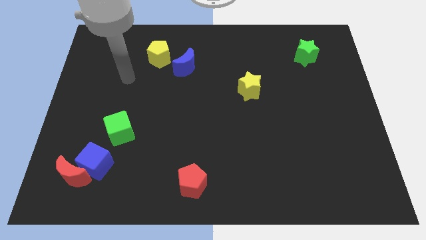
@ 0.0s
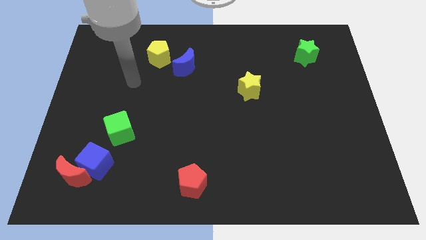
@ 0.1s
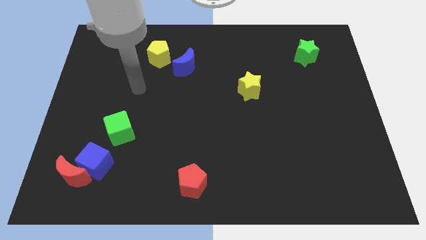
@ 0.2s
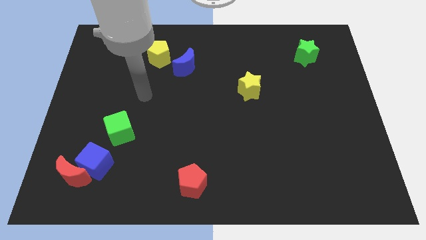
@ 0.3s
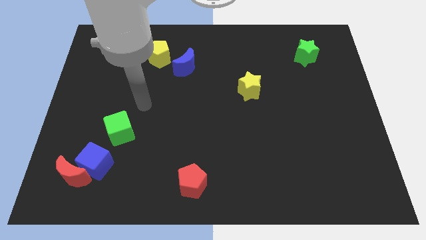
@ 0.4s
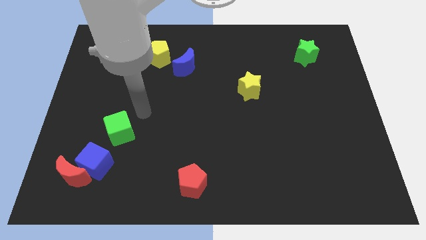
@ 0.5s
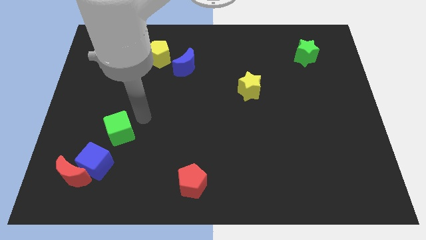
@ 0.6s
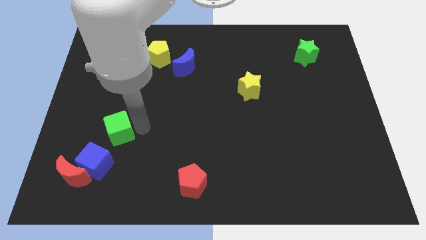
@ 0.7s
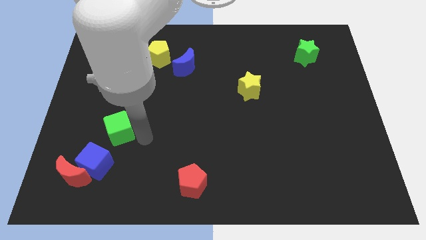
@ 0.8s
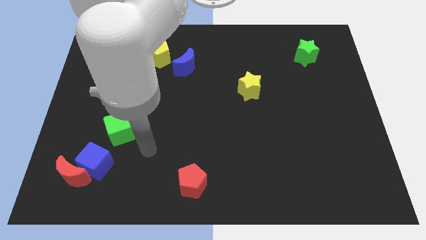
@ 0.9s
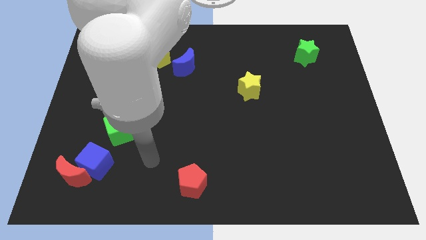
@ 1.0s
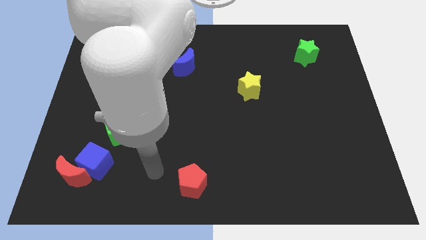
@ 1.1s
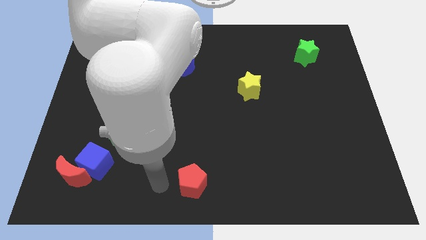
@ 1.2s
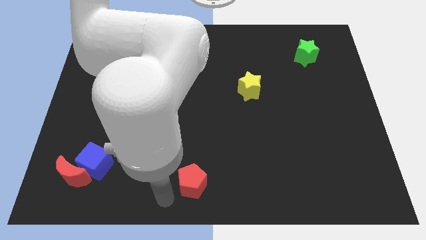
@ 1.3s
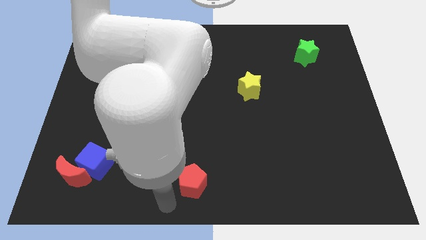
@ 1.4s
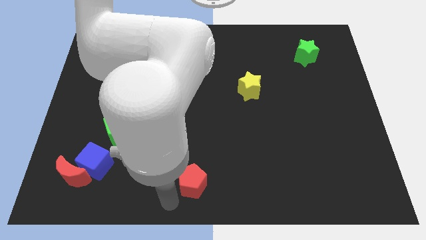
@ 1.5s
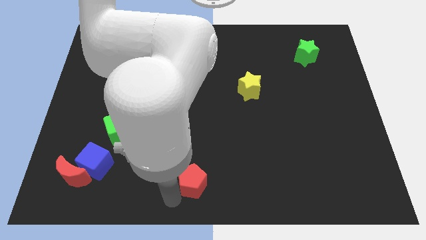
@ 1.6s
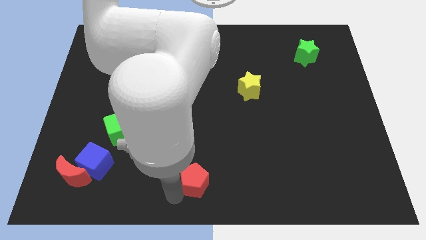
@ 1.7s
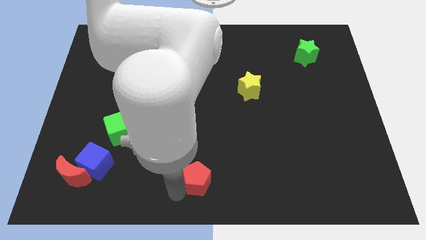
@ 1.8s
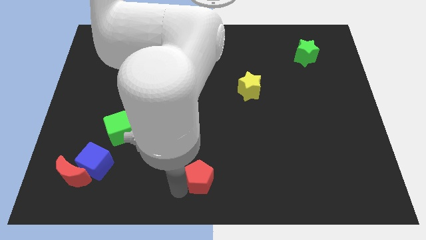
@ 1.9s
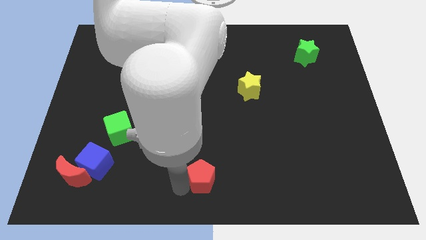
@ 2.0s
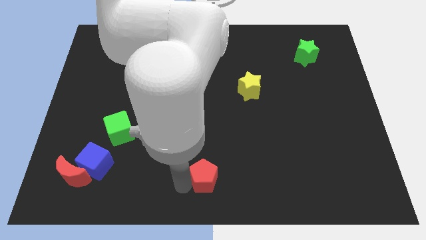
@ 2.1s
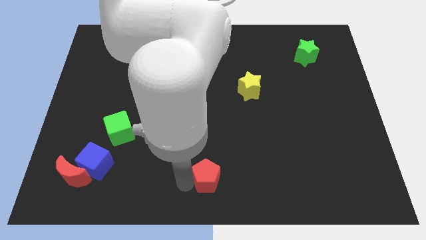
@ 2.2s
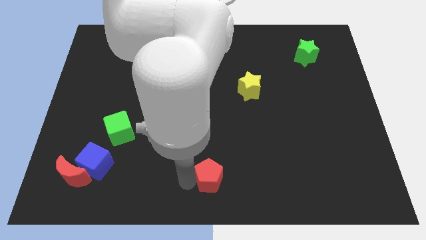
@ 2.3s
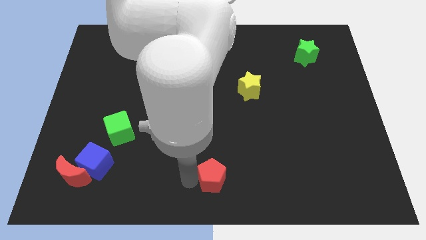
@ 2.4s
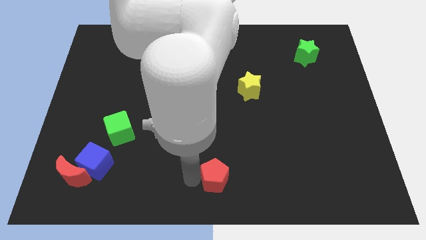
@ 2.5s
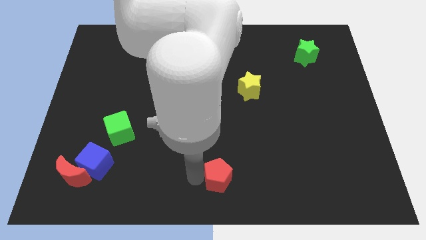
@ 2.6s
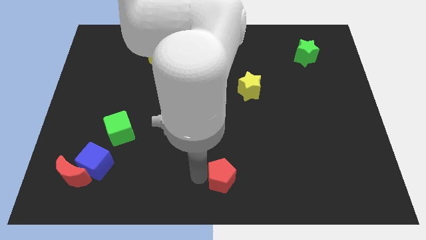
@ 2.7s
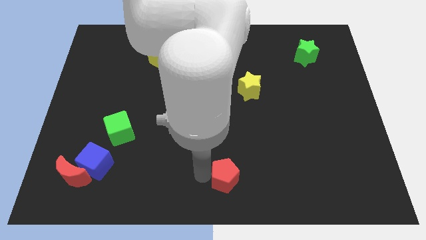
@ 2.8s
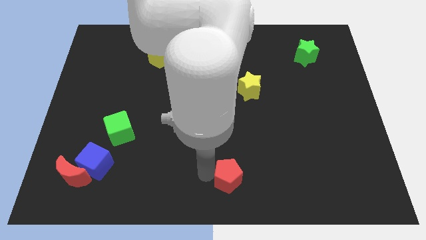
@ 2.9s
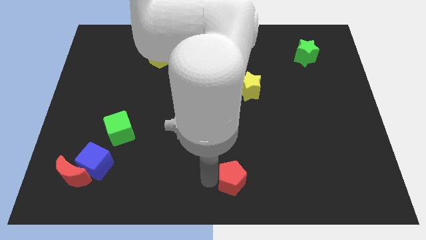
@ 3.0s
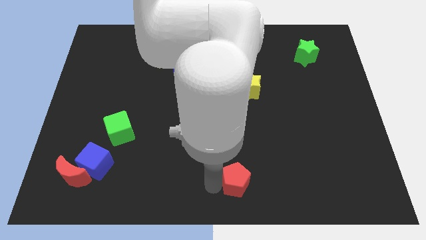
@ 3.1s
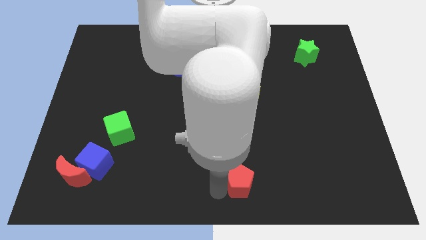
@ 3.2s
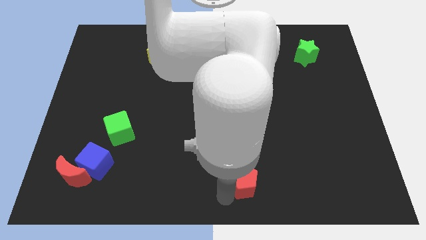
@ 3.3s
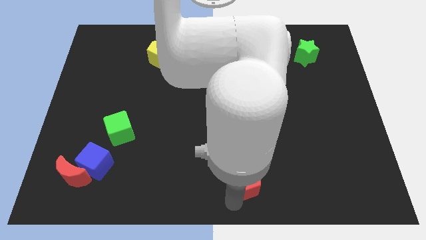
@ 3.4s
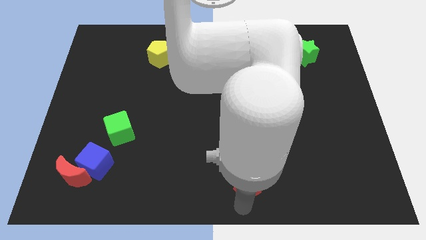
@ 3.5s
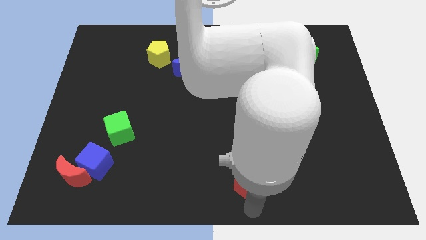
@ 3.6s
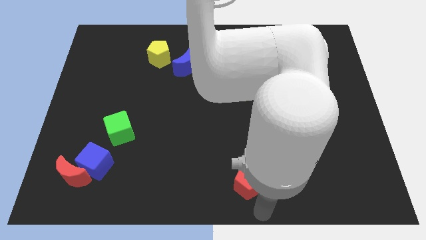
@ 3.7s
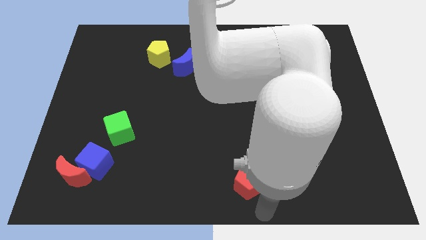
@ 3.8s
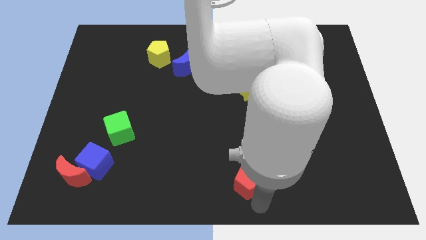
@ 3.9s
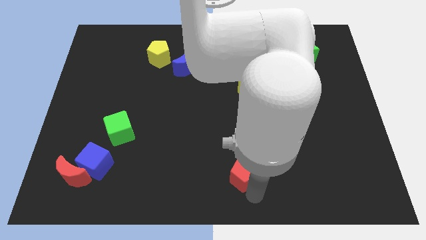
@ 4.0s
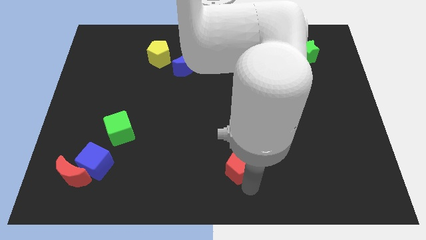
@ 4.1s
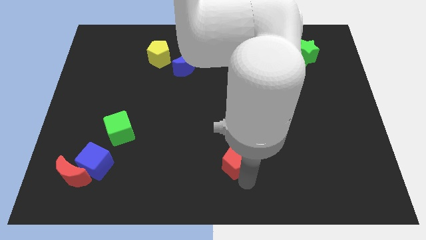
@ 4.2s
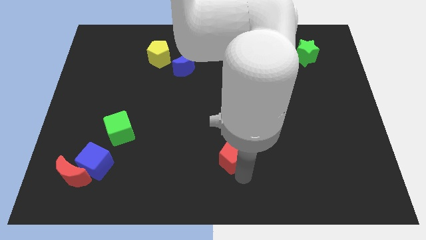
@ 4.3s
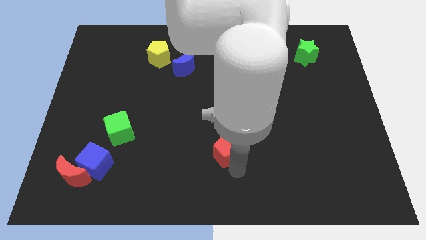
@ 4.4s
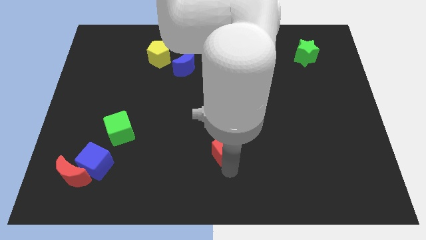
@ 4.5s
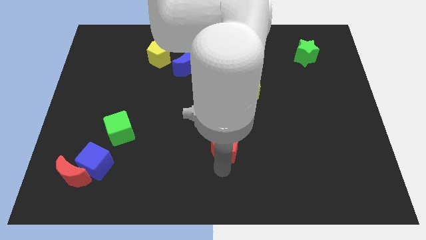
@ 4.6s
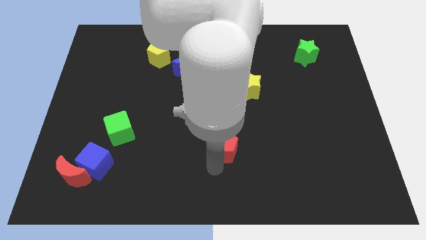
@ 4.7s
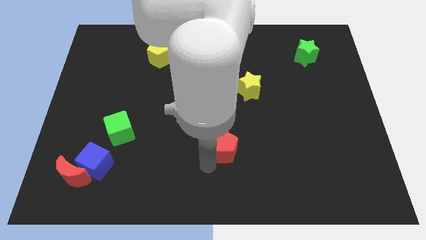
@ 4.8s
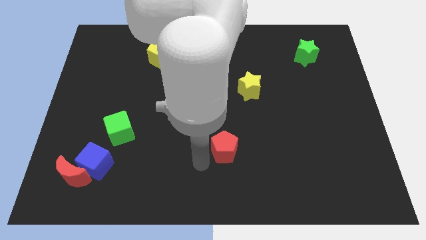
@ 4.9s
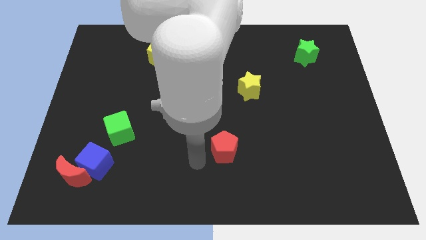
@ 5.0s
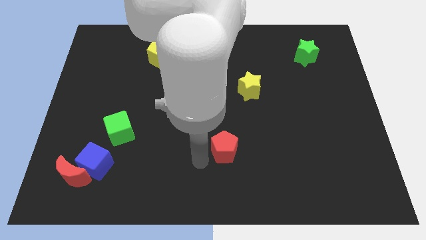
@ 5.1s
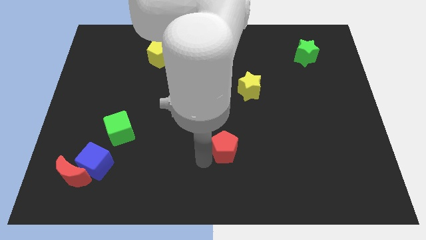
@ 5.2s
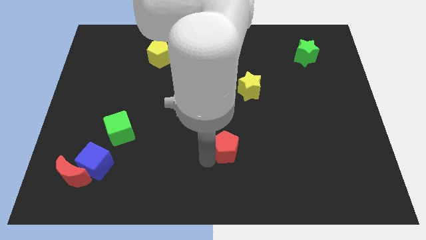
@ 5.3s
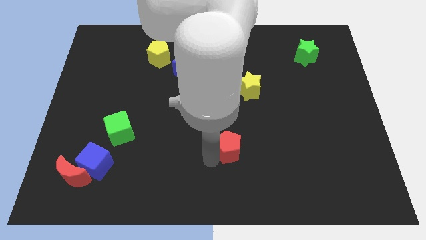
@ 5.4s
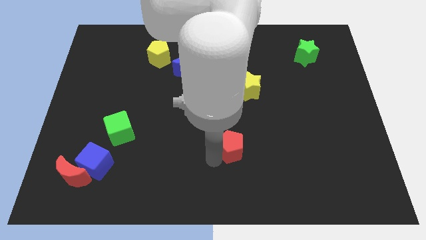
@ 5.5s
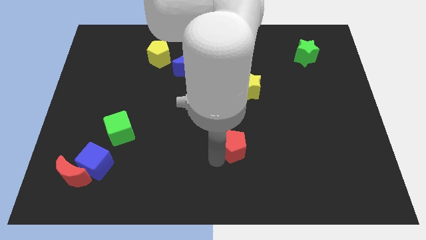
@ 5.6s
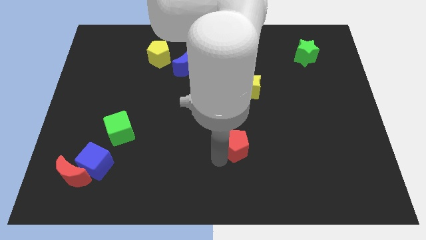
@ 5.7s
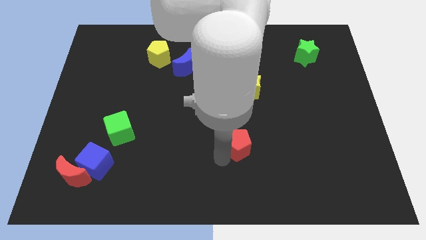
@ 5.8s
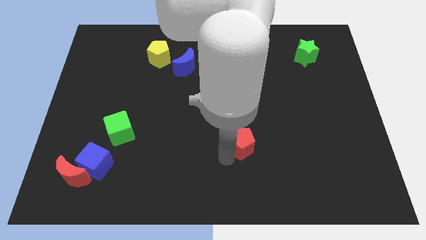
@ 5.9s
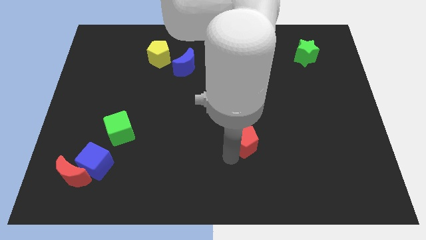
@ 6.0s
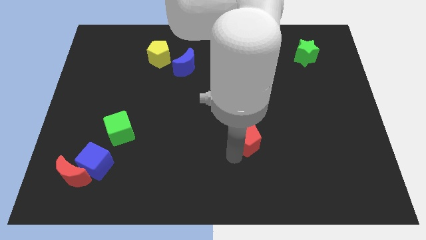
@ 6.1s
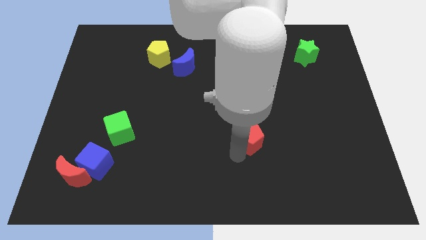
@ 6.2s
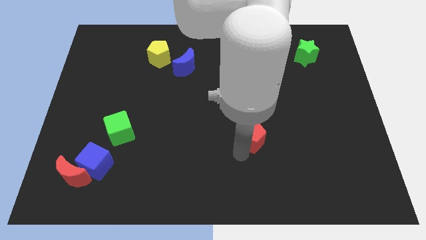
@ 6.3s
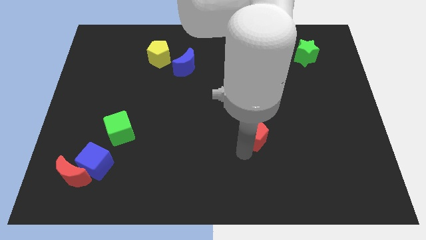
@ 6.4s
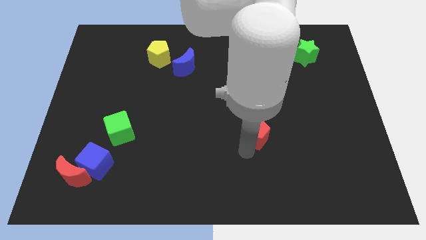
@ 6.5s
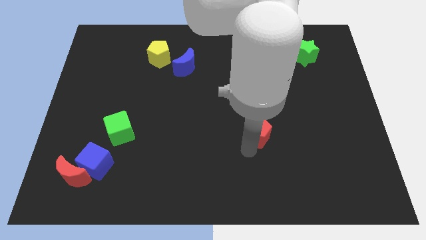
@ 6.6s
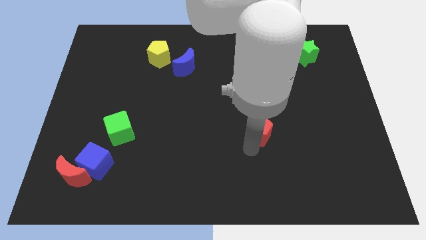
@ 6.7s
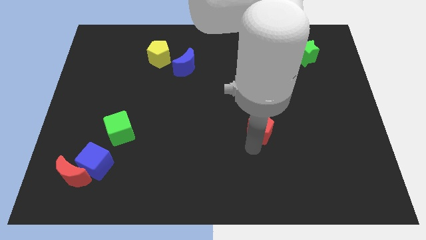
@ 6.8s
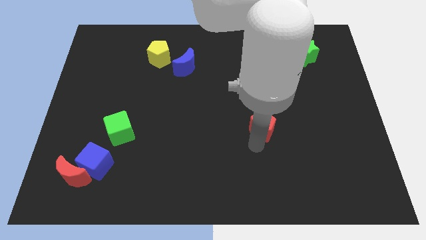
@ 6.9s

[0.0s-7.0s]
move the red pentagon upwards and to the right diagonally

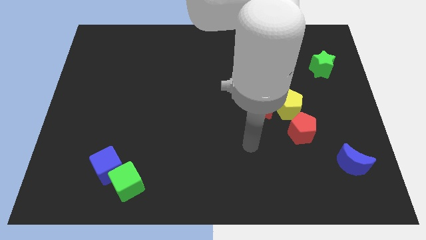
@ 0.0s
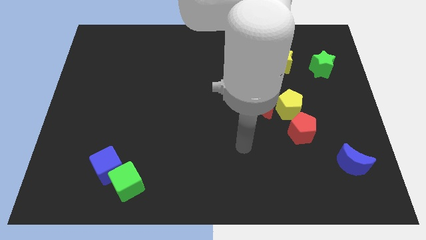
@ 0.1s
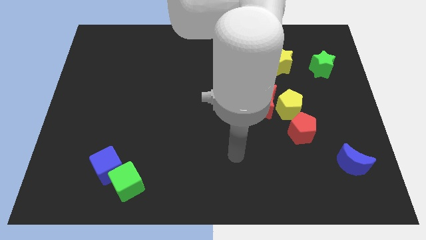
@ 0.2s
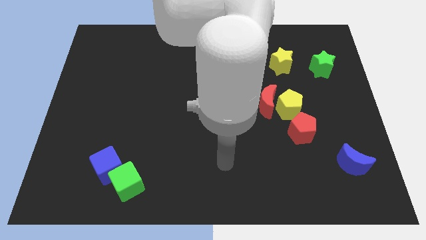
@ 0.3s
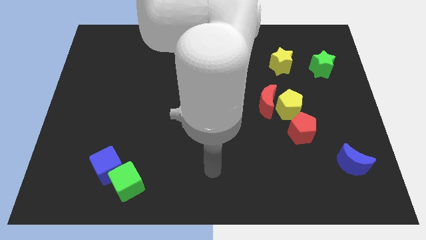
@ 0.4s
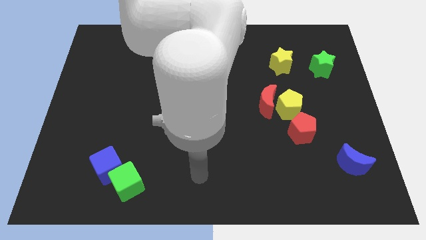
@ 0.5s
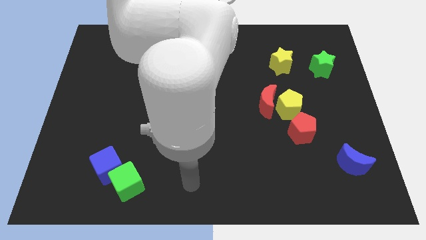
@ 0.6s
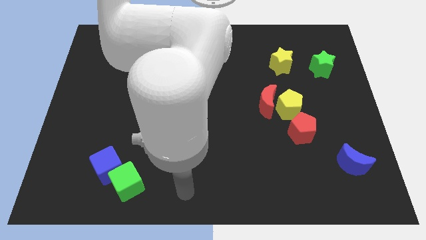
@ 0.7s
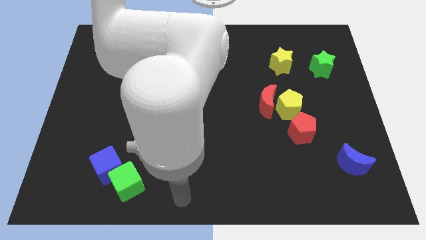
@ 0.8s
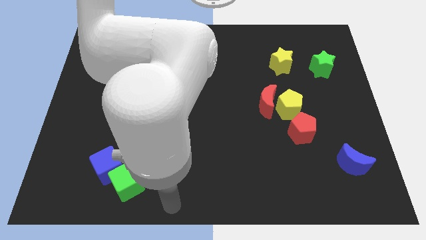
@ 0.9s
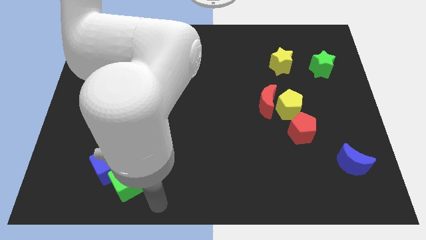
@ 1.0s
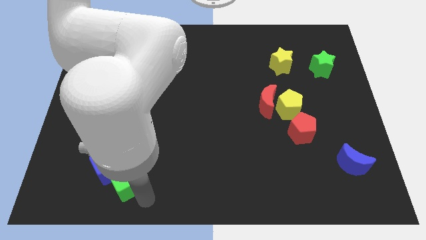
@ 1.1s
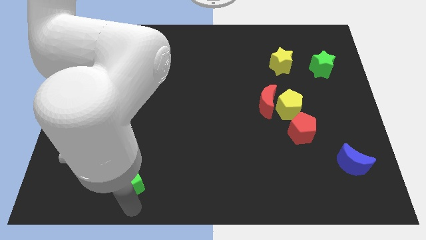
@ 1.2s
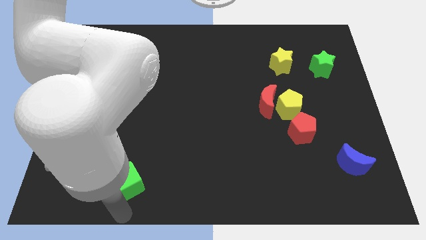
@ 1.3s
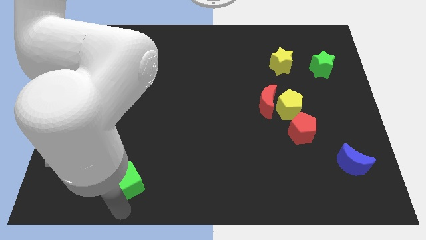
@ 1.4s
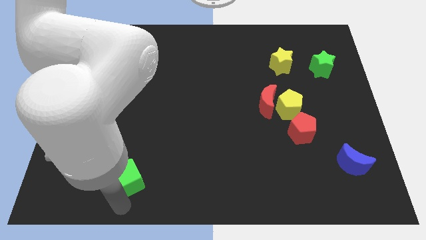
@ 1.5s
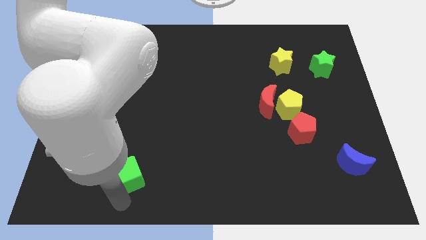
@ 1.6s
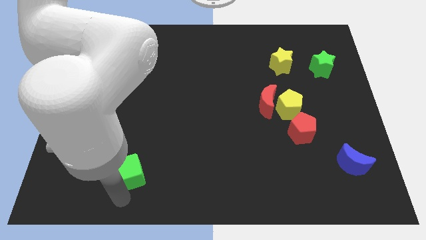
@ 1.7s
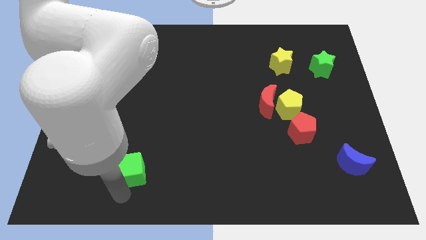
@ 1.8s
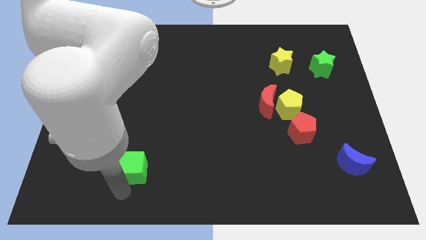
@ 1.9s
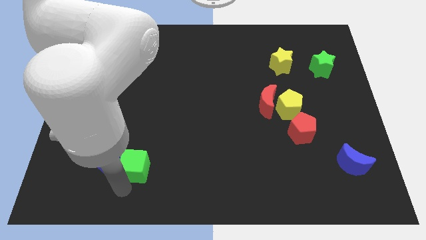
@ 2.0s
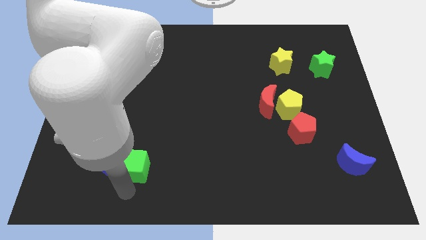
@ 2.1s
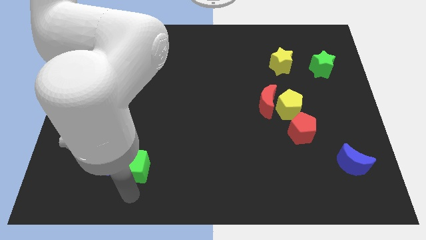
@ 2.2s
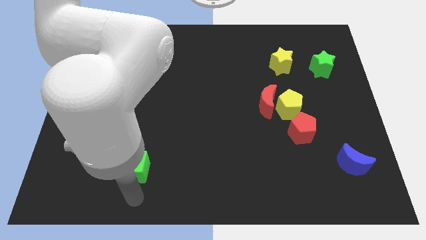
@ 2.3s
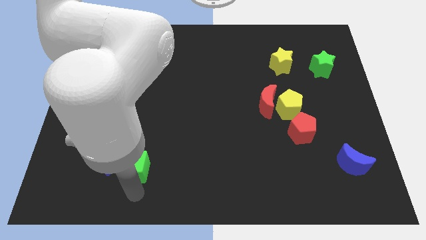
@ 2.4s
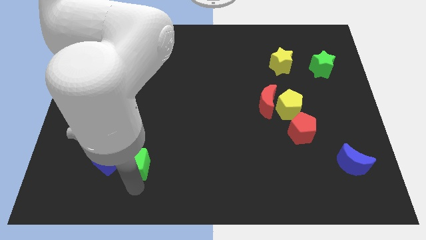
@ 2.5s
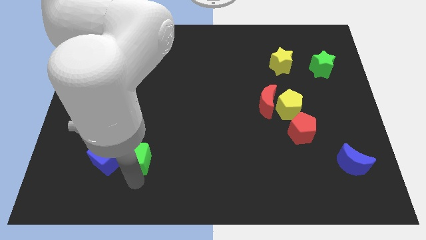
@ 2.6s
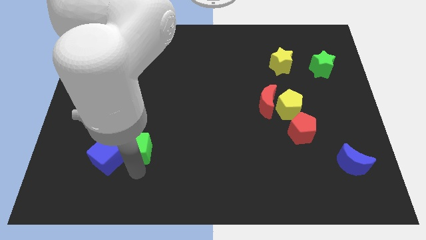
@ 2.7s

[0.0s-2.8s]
move the green cube upwards a little bit
